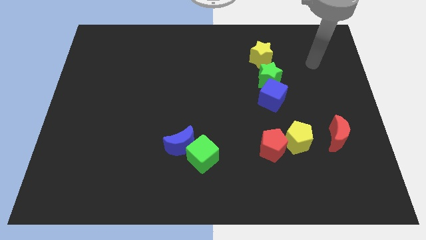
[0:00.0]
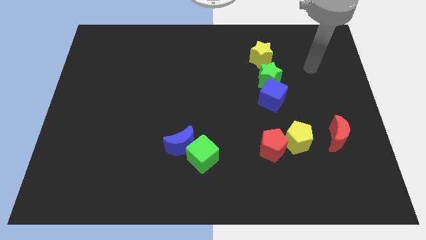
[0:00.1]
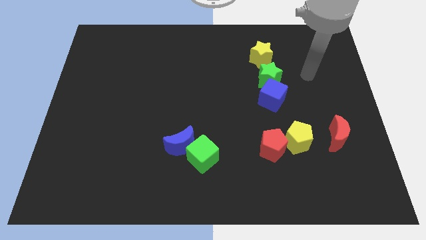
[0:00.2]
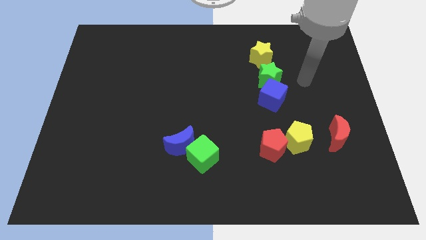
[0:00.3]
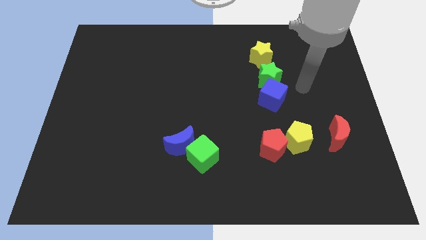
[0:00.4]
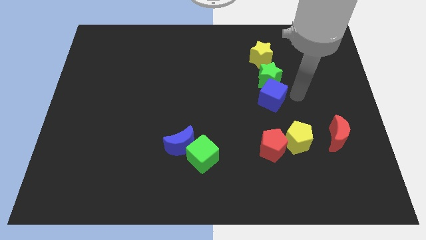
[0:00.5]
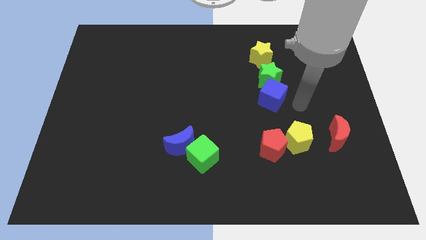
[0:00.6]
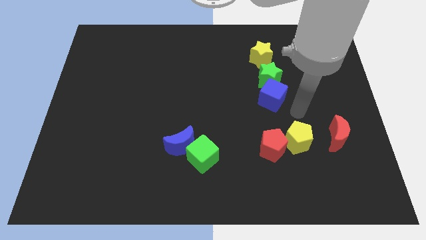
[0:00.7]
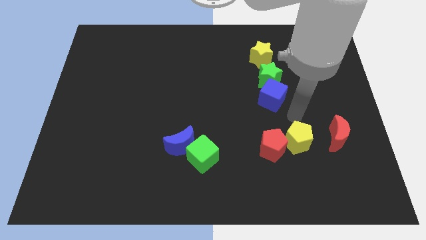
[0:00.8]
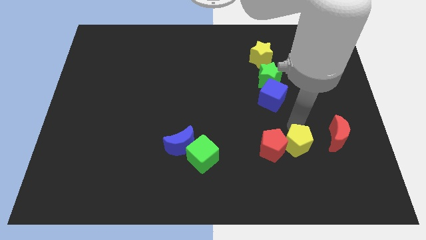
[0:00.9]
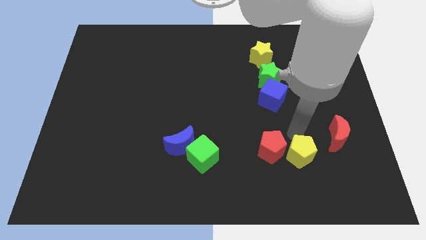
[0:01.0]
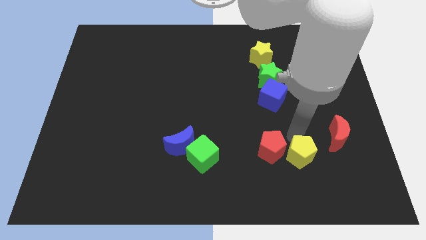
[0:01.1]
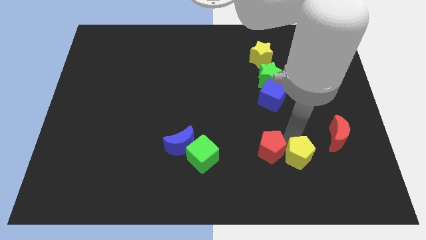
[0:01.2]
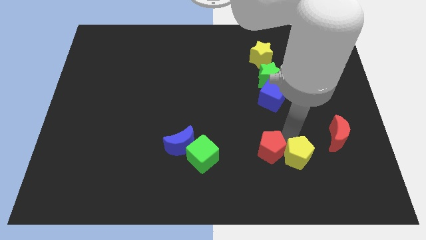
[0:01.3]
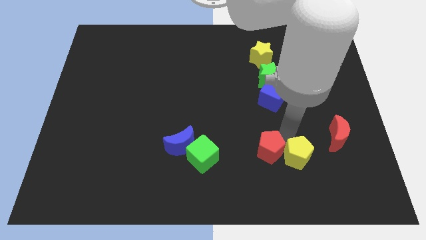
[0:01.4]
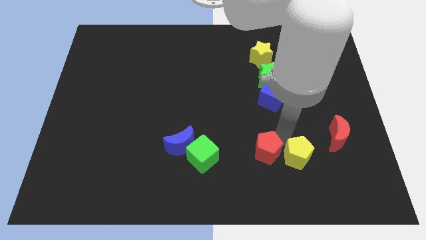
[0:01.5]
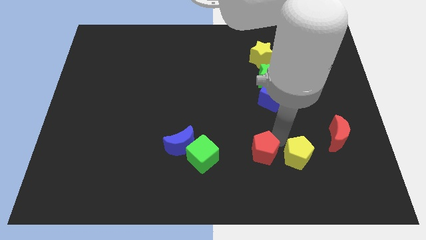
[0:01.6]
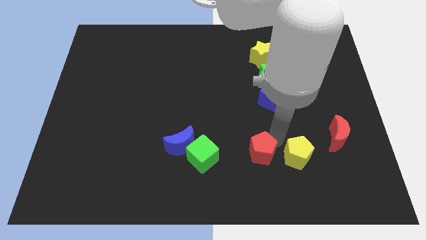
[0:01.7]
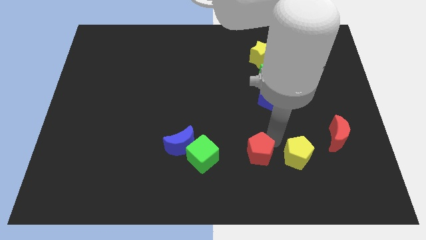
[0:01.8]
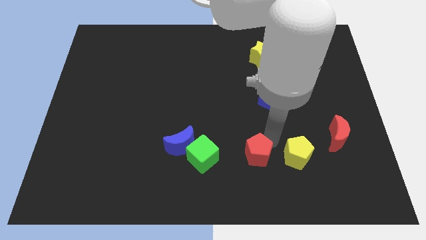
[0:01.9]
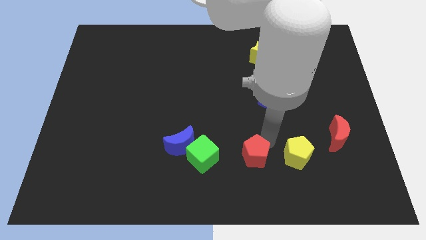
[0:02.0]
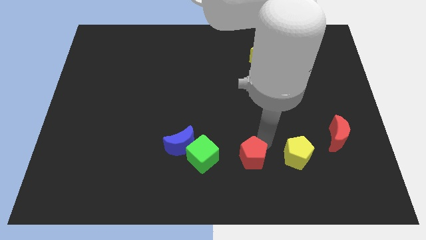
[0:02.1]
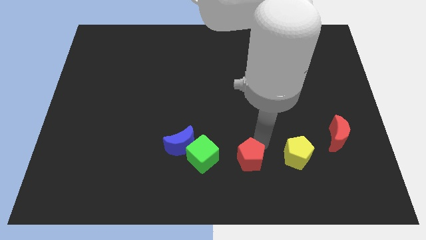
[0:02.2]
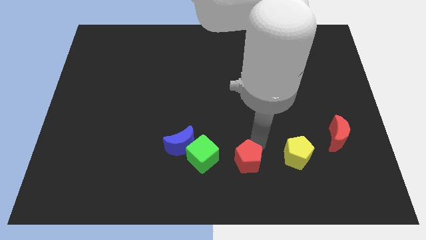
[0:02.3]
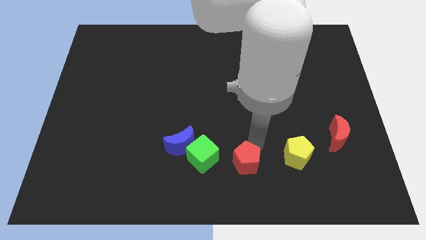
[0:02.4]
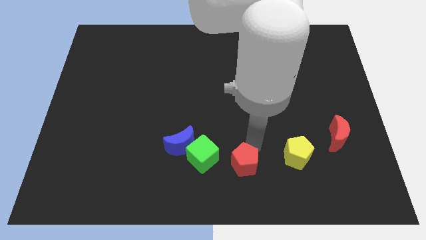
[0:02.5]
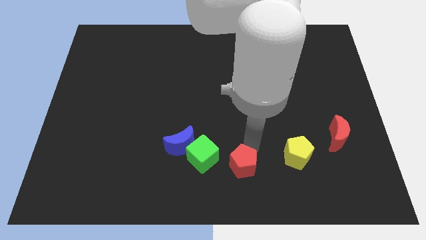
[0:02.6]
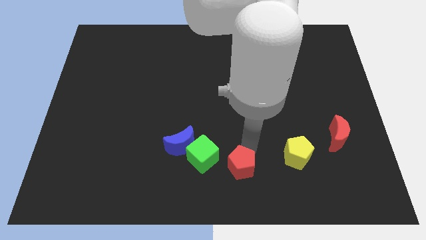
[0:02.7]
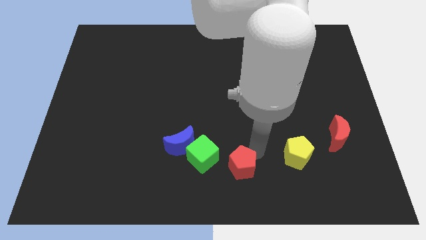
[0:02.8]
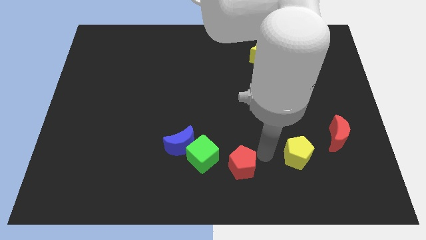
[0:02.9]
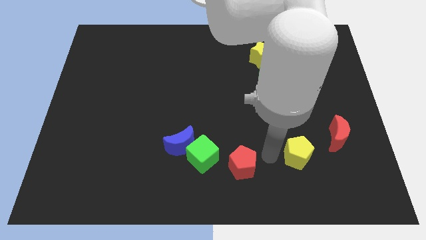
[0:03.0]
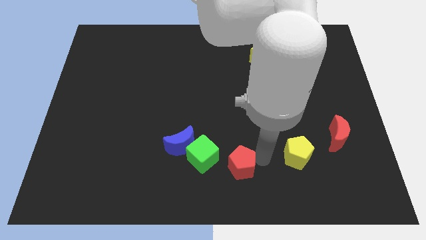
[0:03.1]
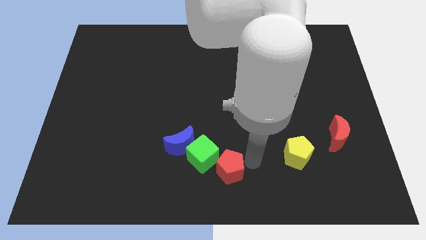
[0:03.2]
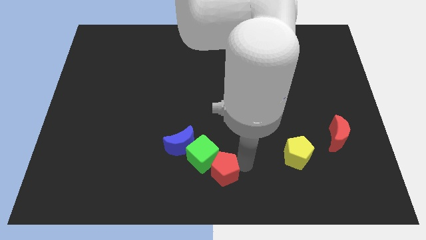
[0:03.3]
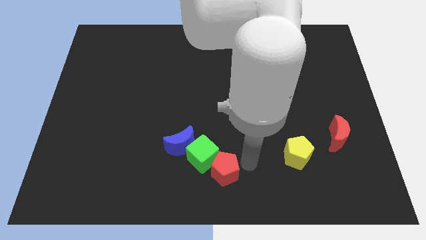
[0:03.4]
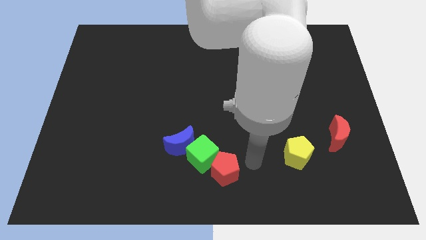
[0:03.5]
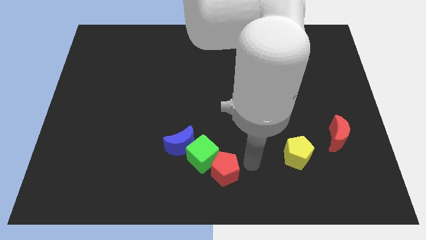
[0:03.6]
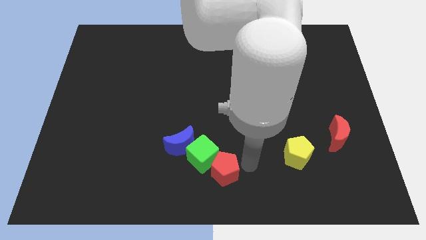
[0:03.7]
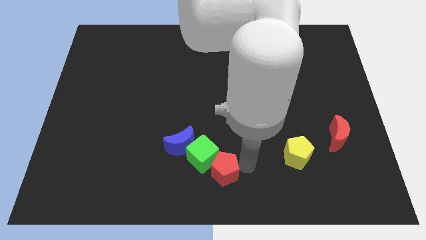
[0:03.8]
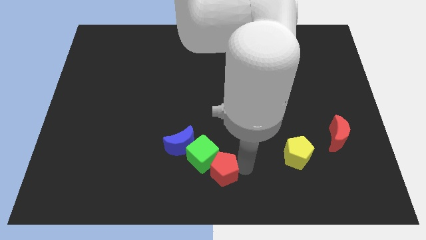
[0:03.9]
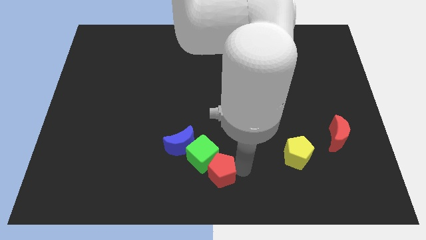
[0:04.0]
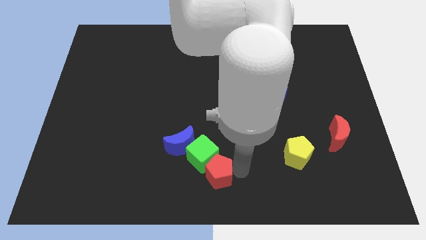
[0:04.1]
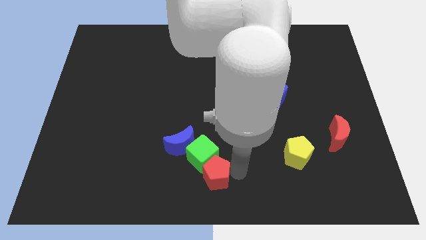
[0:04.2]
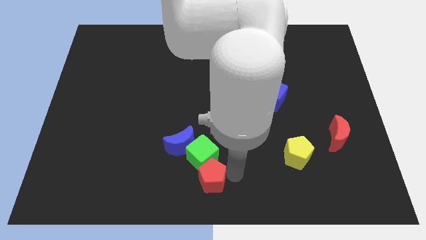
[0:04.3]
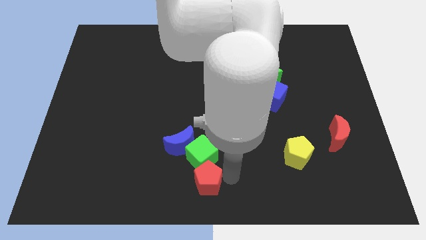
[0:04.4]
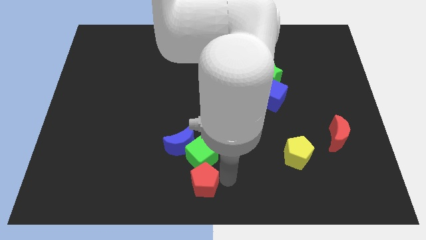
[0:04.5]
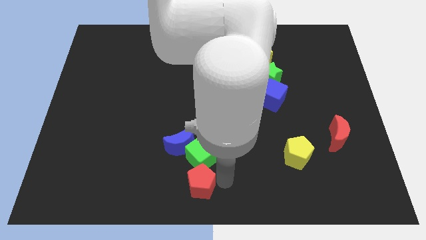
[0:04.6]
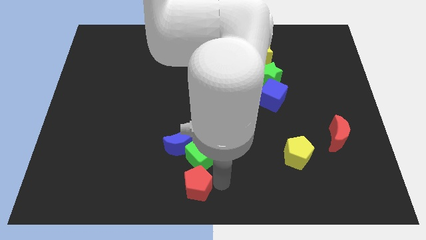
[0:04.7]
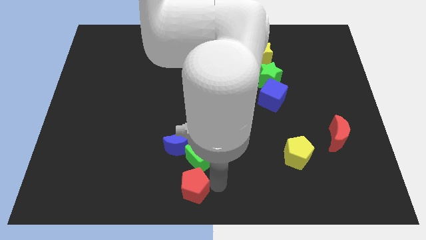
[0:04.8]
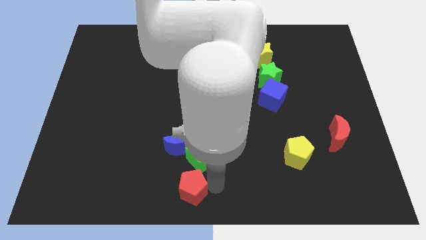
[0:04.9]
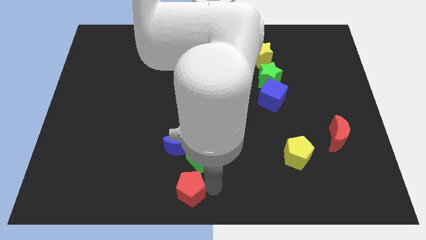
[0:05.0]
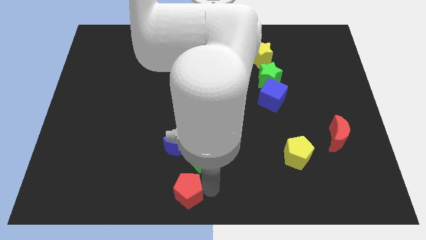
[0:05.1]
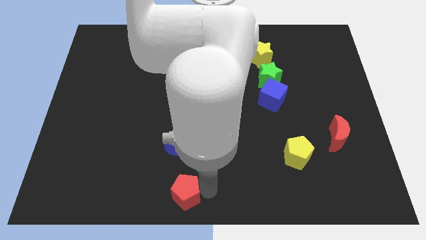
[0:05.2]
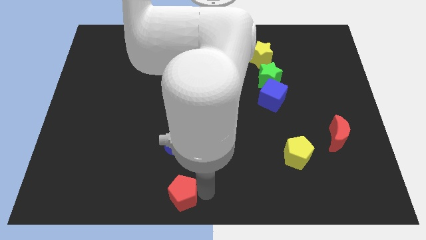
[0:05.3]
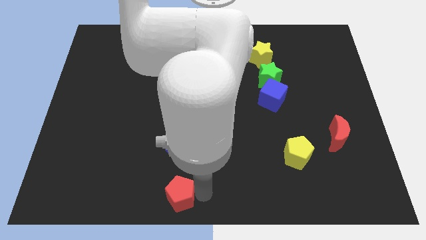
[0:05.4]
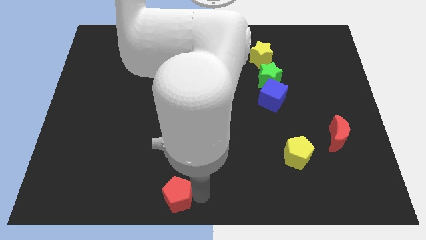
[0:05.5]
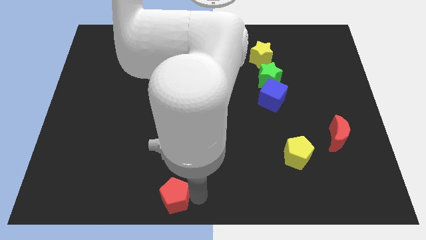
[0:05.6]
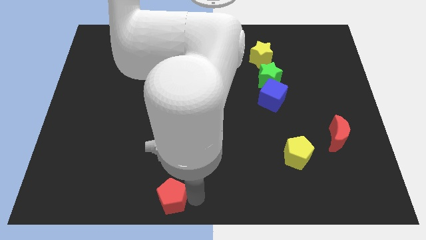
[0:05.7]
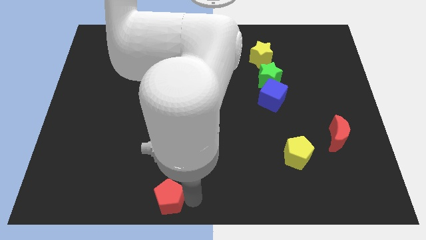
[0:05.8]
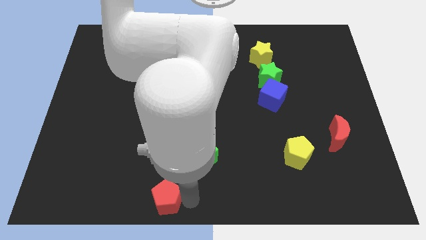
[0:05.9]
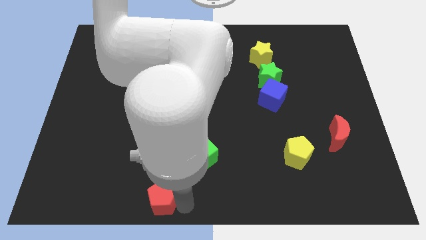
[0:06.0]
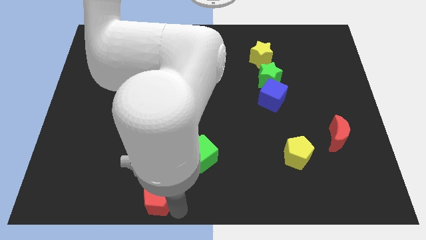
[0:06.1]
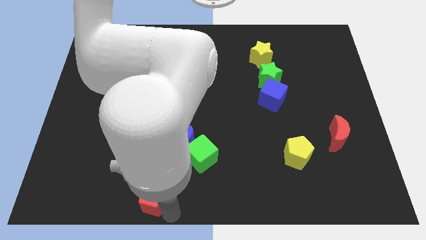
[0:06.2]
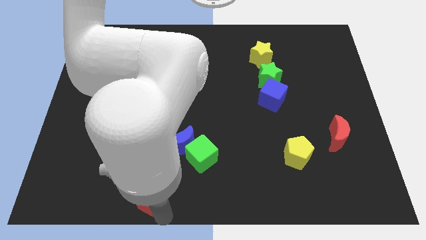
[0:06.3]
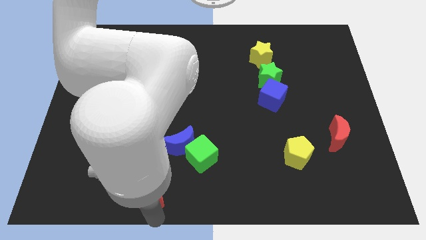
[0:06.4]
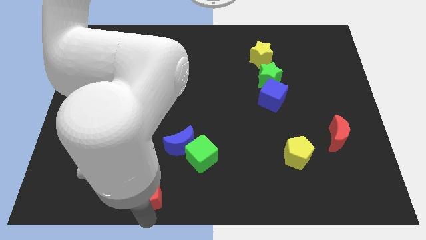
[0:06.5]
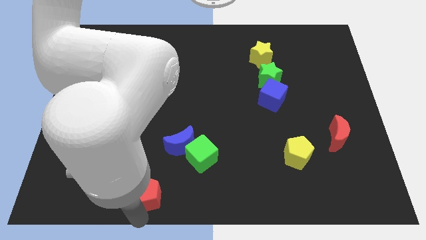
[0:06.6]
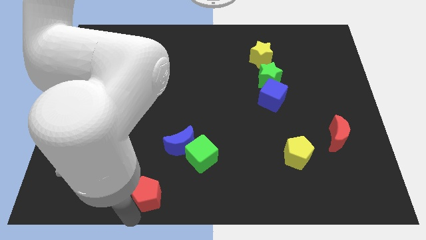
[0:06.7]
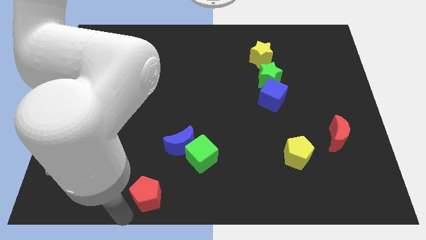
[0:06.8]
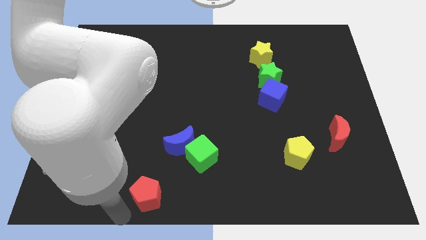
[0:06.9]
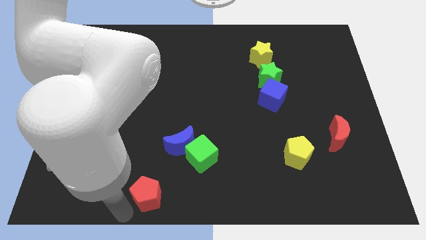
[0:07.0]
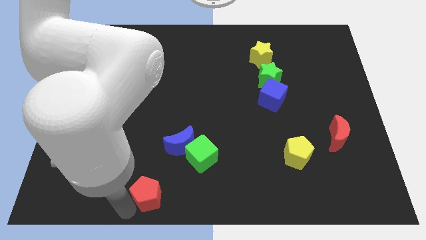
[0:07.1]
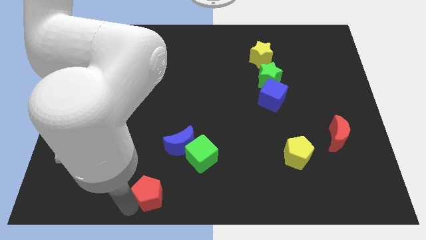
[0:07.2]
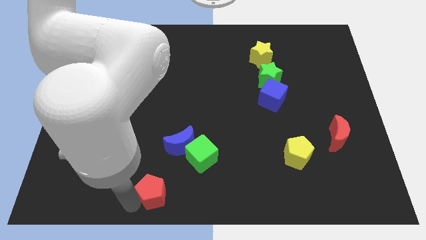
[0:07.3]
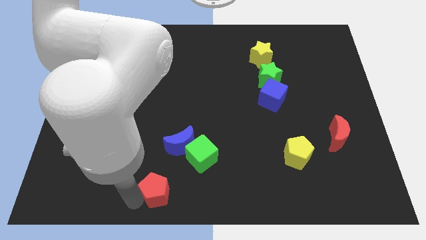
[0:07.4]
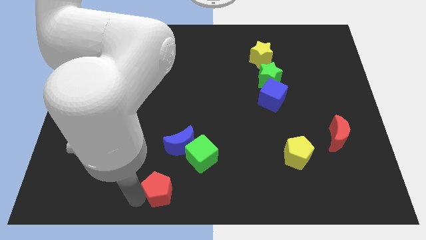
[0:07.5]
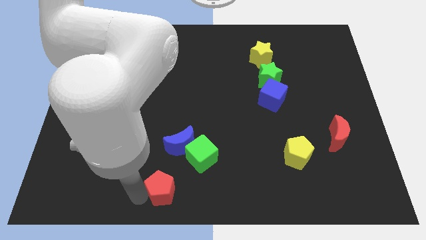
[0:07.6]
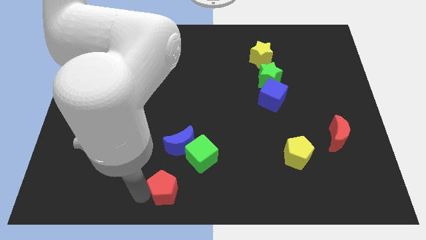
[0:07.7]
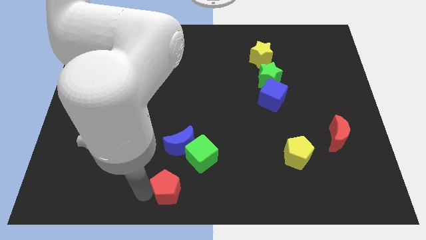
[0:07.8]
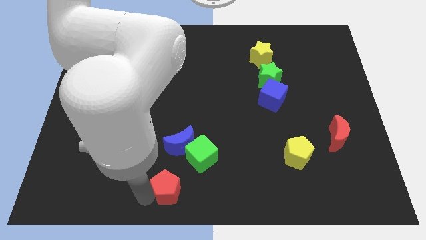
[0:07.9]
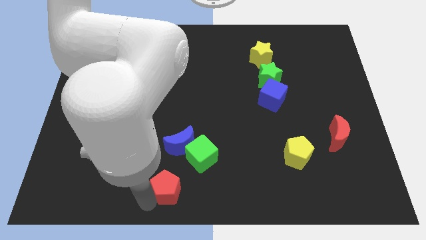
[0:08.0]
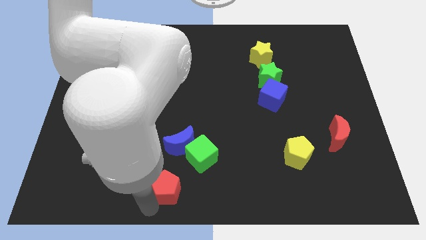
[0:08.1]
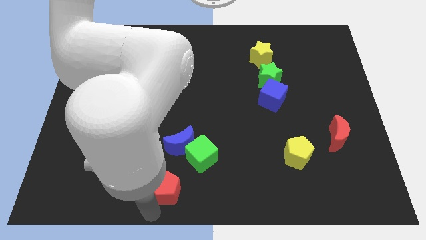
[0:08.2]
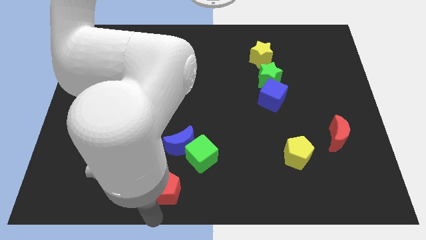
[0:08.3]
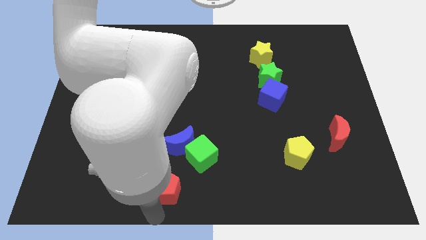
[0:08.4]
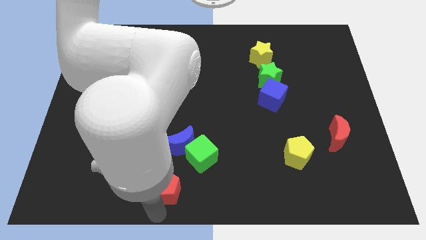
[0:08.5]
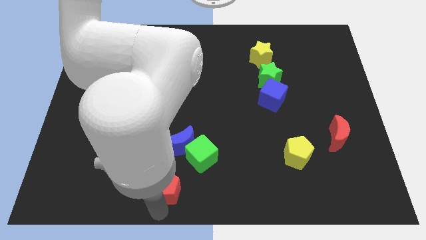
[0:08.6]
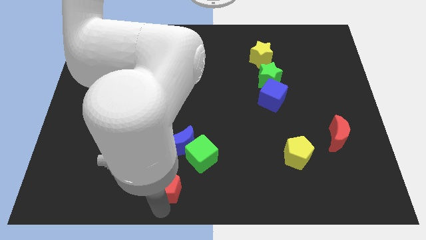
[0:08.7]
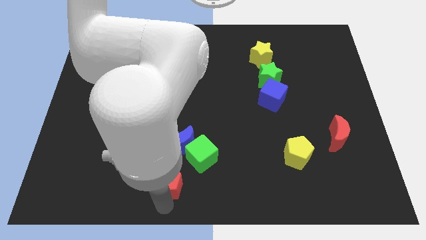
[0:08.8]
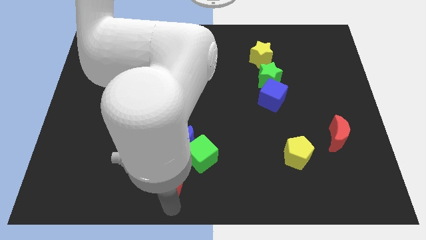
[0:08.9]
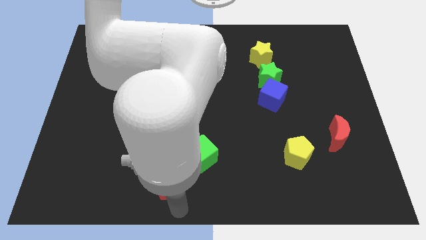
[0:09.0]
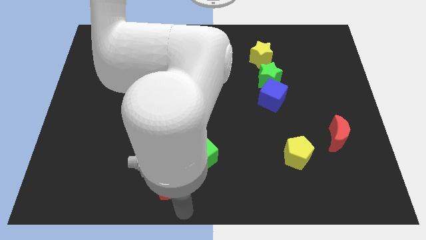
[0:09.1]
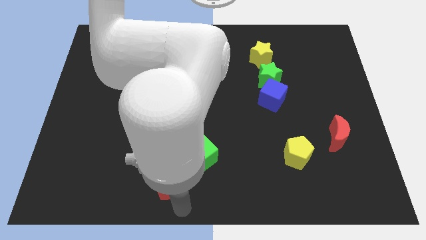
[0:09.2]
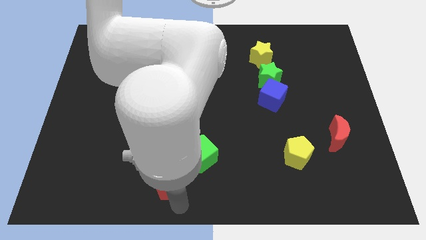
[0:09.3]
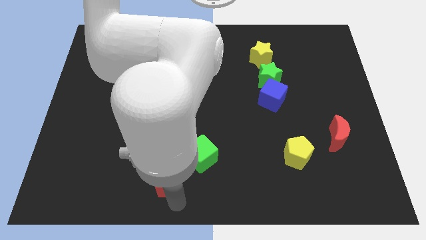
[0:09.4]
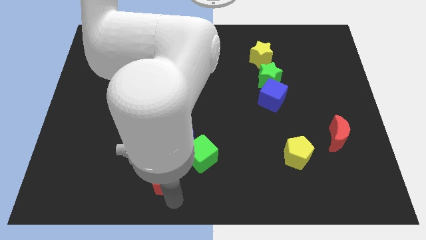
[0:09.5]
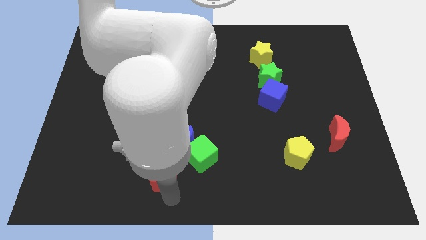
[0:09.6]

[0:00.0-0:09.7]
move the red pentagon to the left side of the green cube
